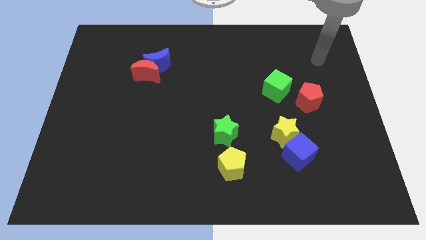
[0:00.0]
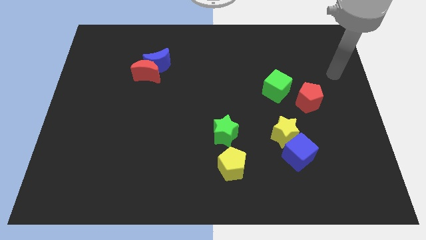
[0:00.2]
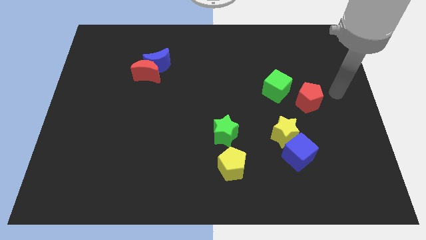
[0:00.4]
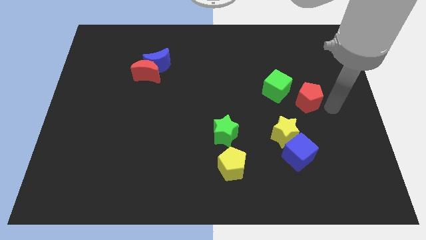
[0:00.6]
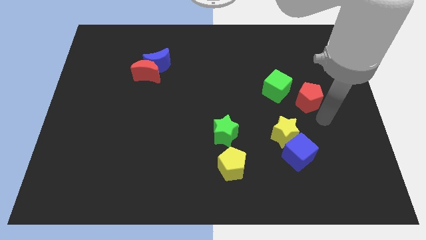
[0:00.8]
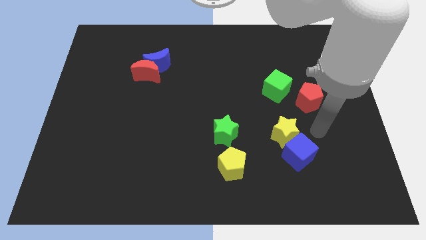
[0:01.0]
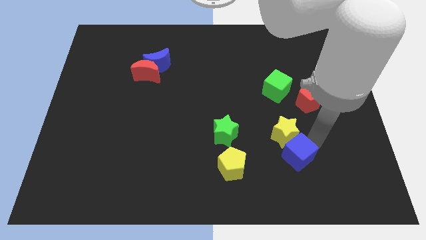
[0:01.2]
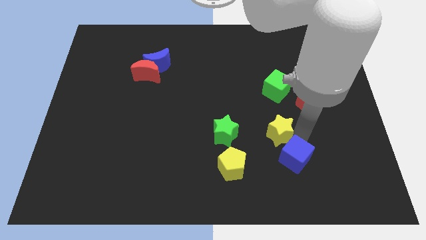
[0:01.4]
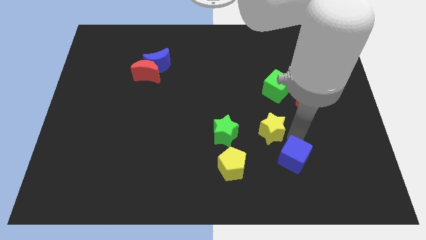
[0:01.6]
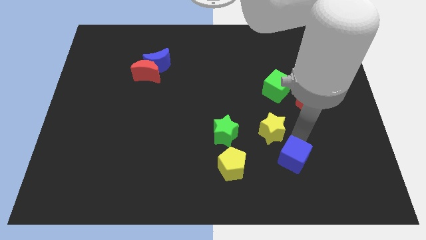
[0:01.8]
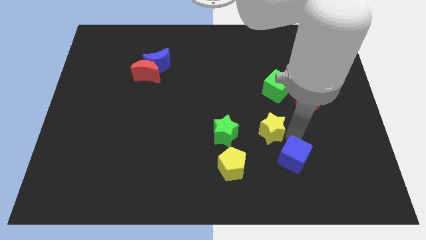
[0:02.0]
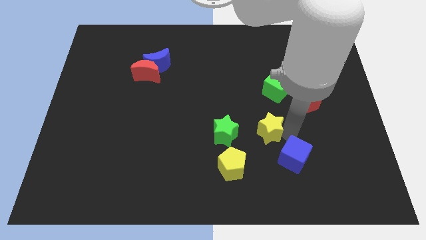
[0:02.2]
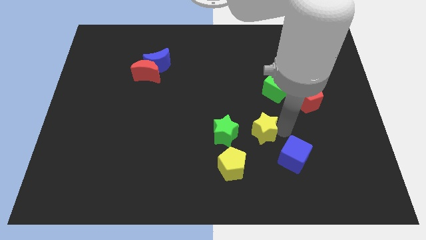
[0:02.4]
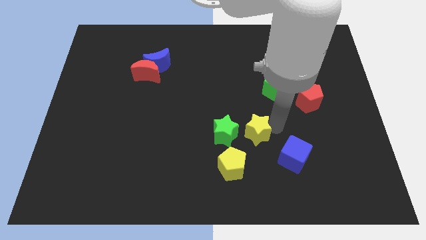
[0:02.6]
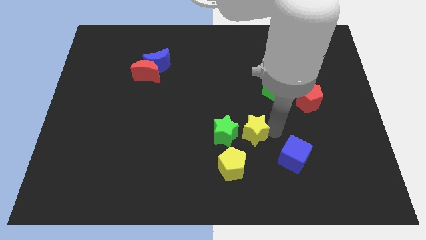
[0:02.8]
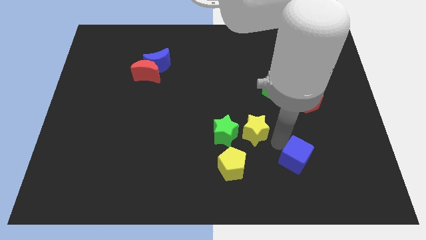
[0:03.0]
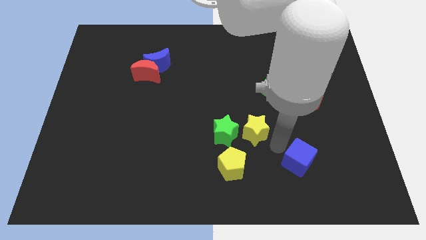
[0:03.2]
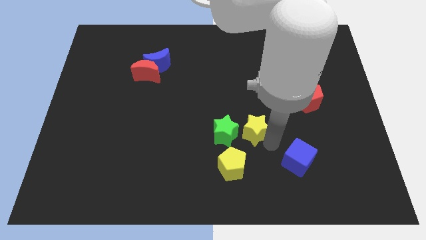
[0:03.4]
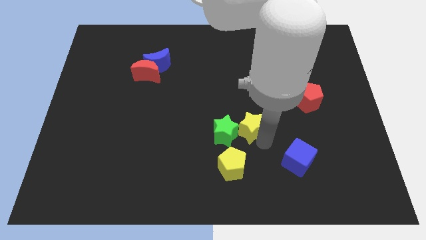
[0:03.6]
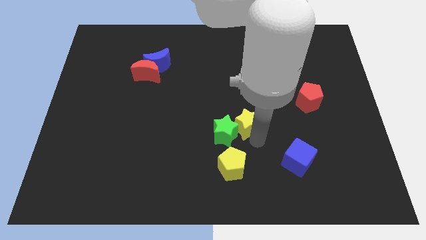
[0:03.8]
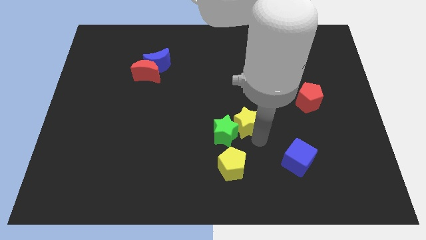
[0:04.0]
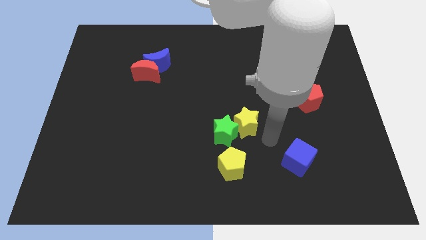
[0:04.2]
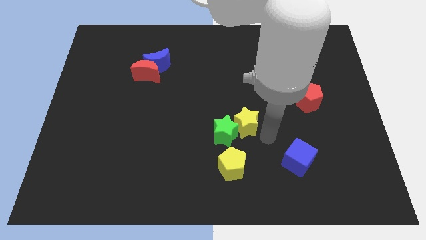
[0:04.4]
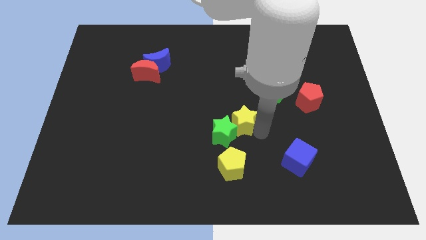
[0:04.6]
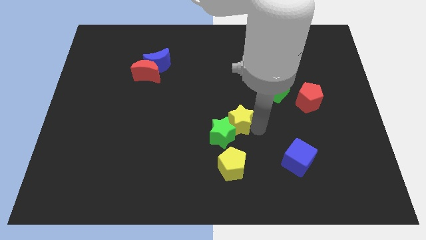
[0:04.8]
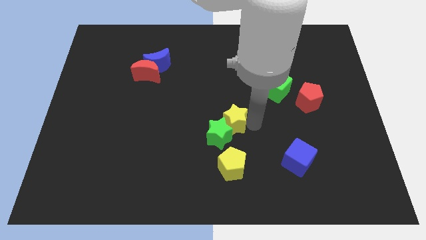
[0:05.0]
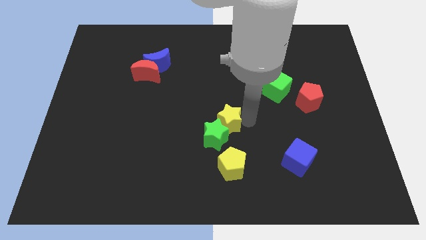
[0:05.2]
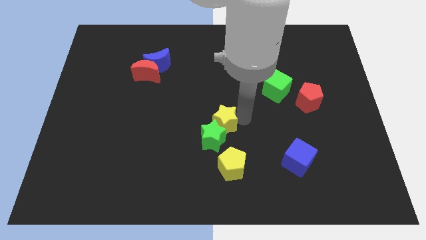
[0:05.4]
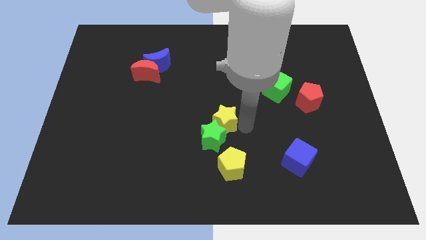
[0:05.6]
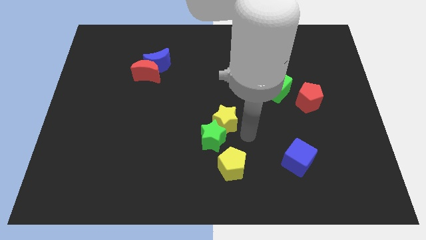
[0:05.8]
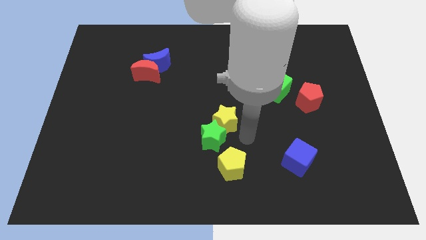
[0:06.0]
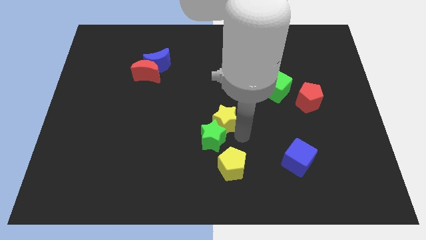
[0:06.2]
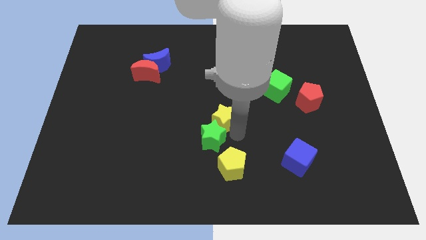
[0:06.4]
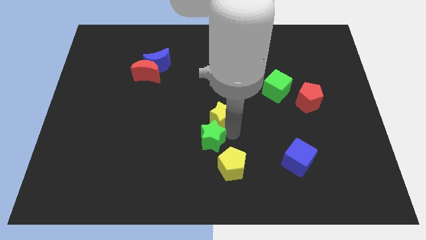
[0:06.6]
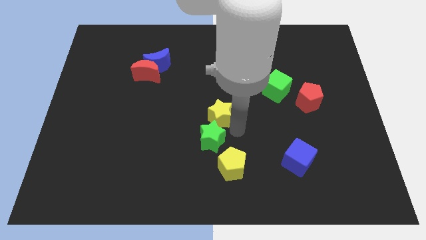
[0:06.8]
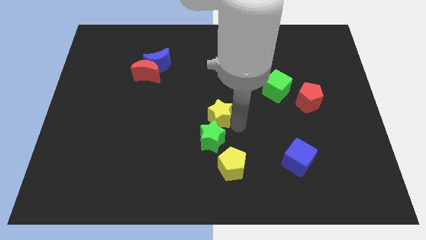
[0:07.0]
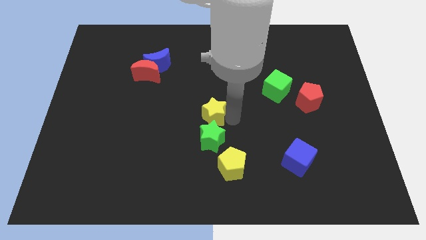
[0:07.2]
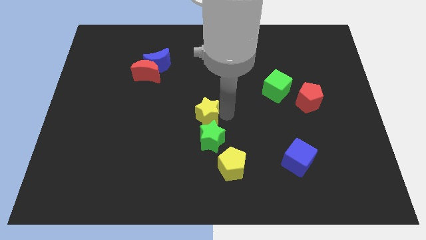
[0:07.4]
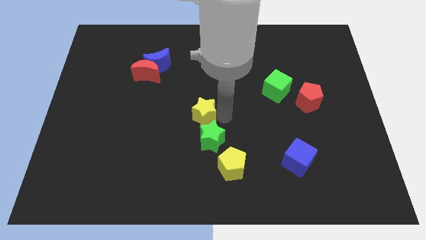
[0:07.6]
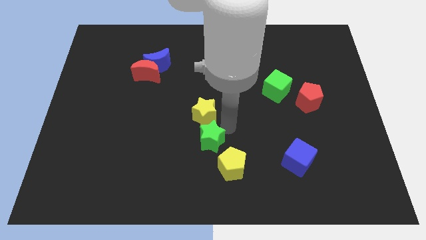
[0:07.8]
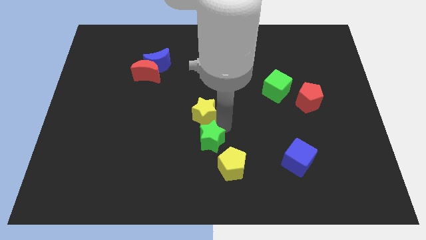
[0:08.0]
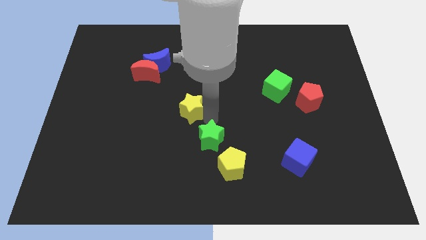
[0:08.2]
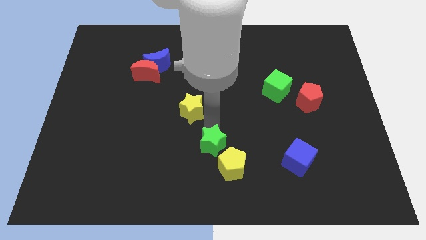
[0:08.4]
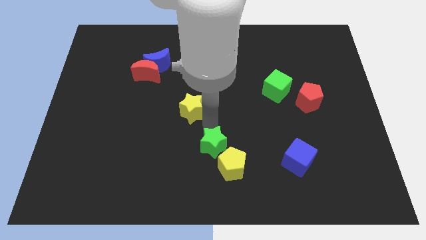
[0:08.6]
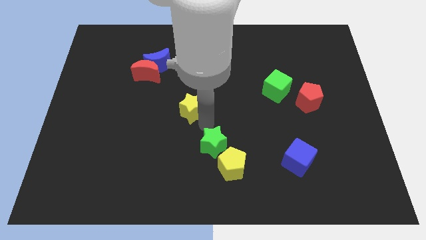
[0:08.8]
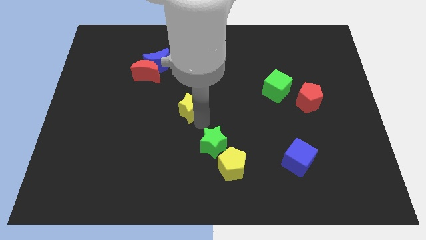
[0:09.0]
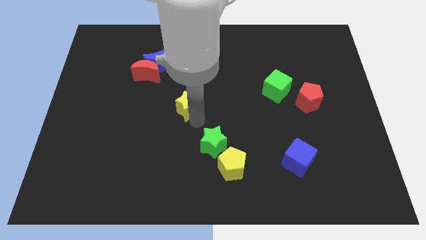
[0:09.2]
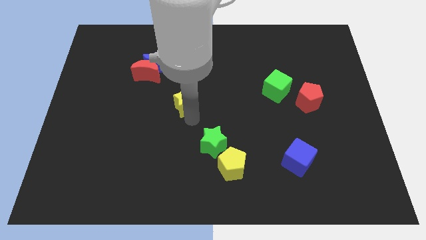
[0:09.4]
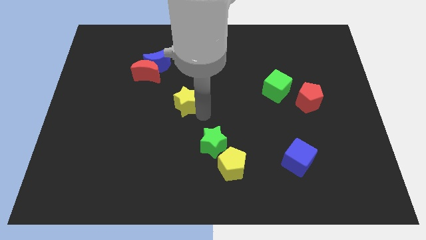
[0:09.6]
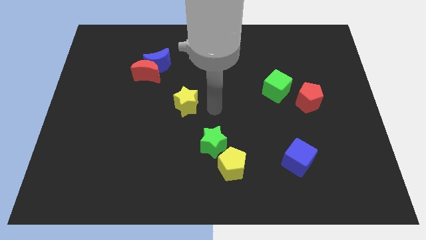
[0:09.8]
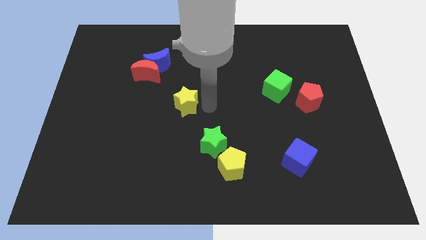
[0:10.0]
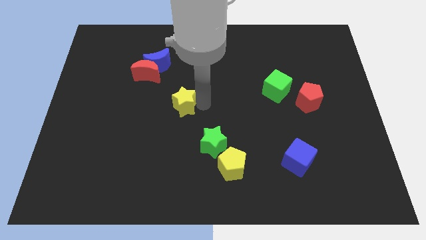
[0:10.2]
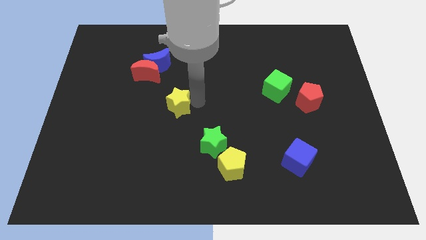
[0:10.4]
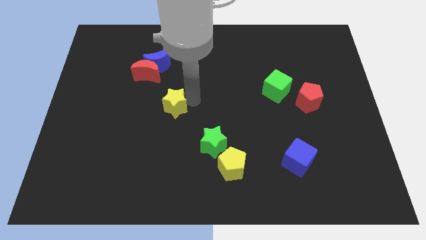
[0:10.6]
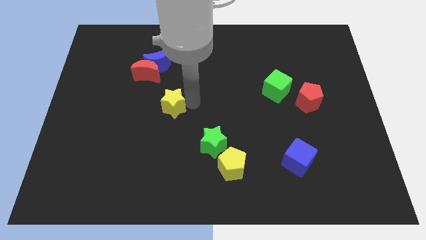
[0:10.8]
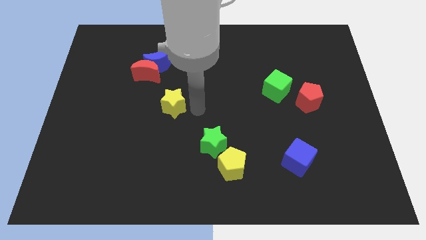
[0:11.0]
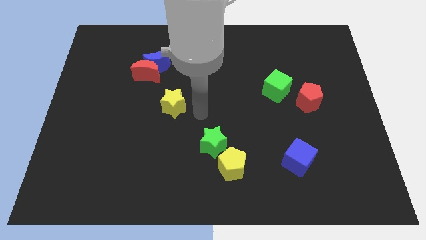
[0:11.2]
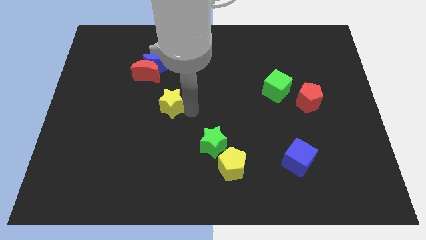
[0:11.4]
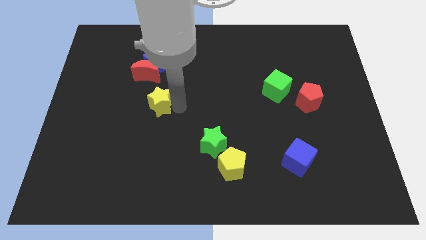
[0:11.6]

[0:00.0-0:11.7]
slide the yellow star to the bottom side of the red moon

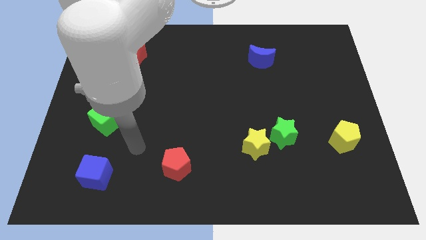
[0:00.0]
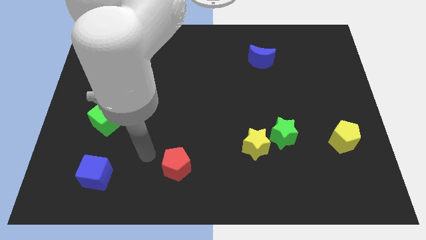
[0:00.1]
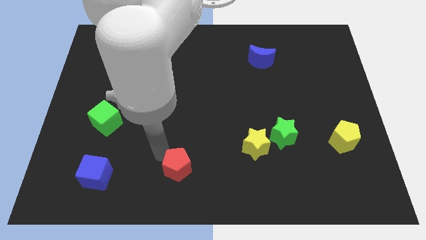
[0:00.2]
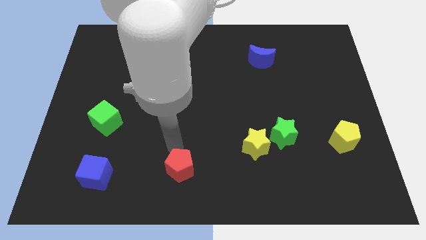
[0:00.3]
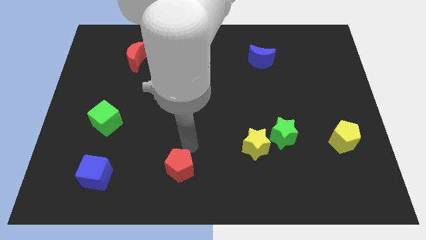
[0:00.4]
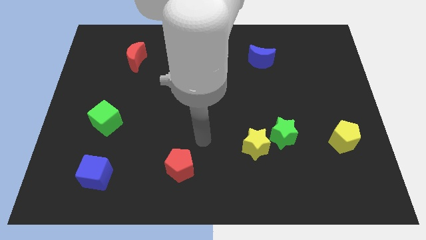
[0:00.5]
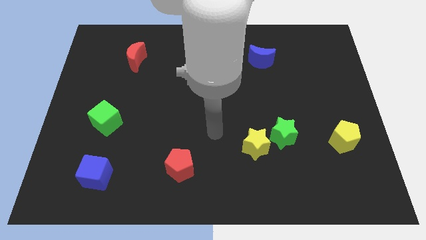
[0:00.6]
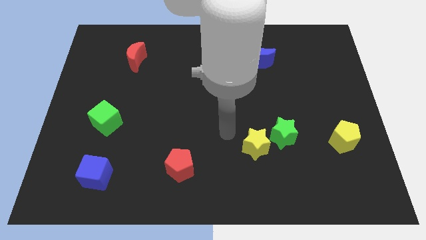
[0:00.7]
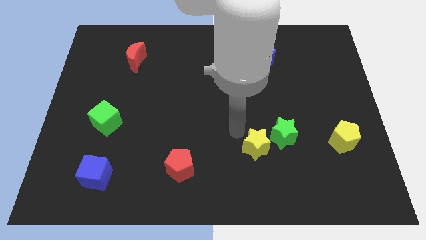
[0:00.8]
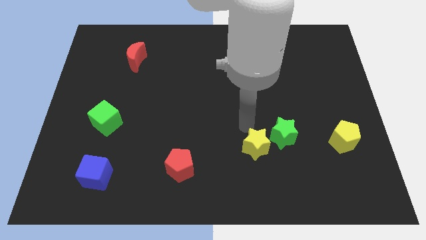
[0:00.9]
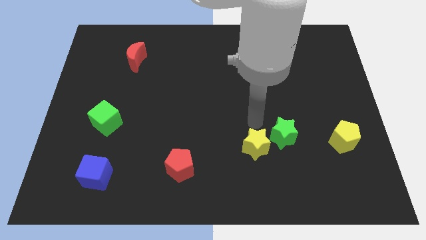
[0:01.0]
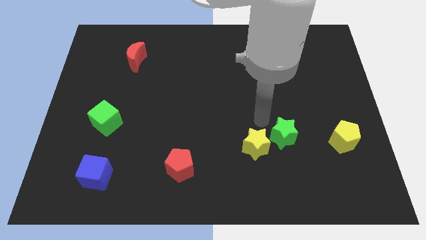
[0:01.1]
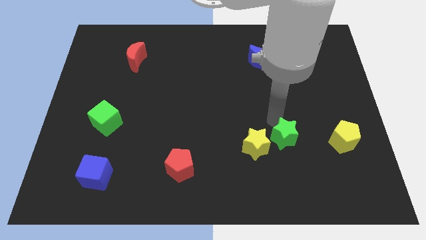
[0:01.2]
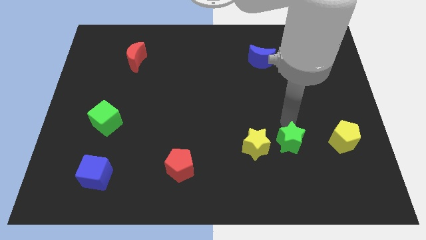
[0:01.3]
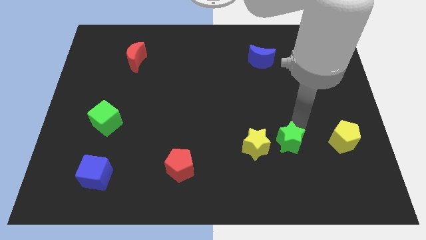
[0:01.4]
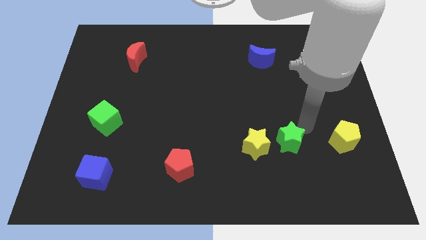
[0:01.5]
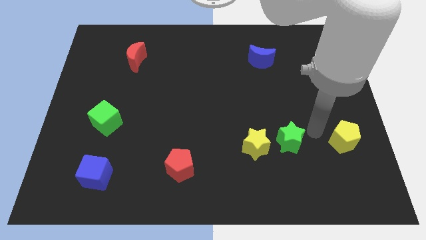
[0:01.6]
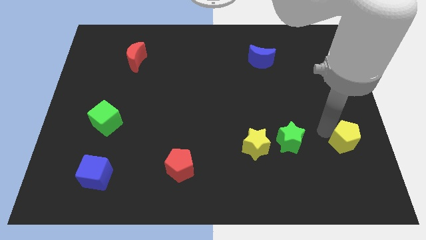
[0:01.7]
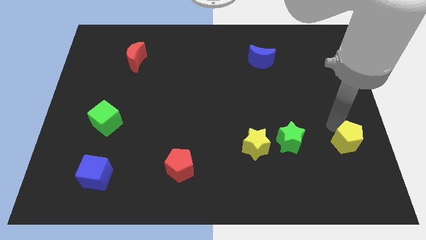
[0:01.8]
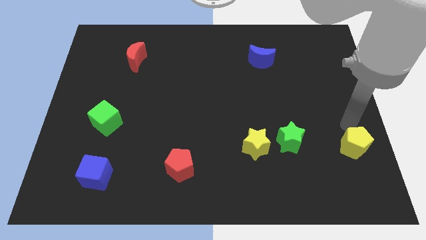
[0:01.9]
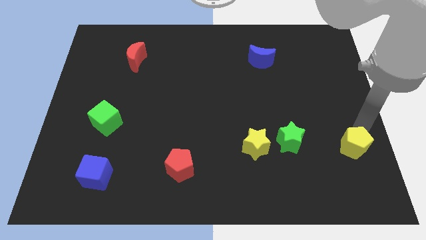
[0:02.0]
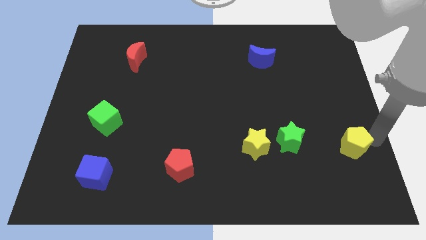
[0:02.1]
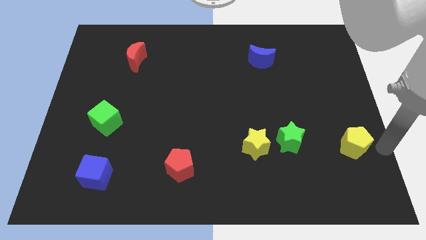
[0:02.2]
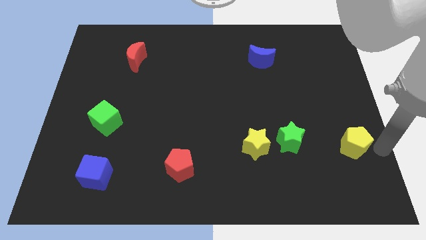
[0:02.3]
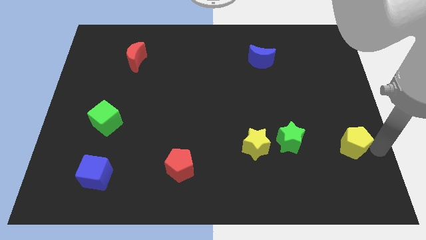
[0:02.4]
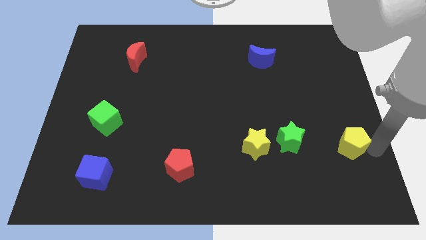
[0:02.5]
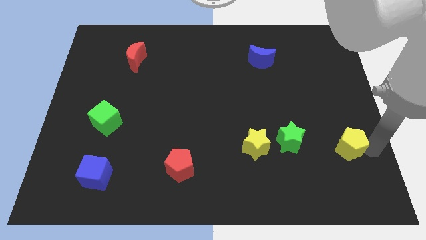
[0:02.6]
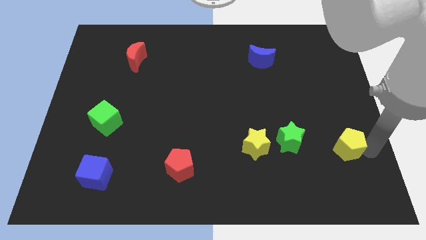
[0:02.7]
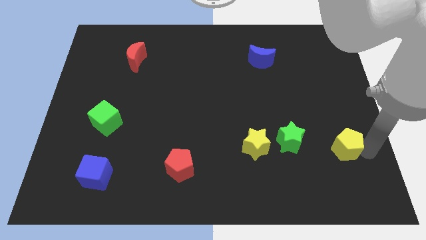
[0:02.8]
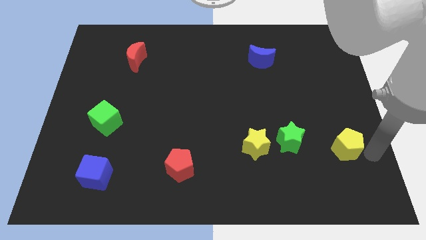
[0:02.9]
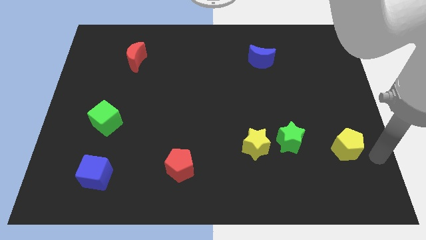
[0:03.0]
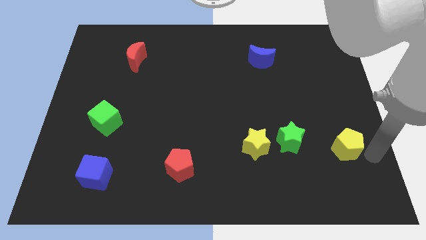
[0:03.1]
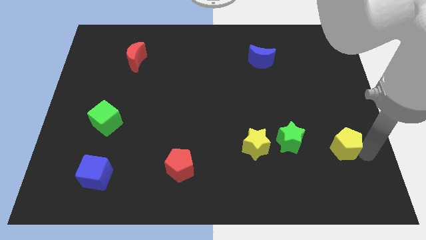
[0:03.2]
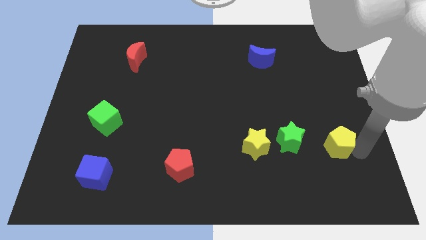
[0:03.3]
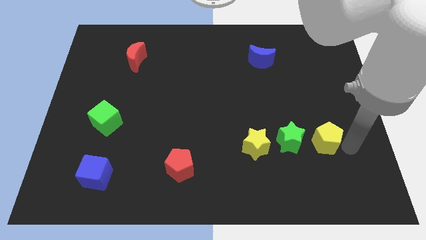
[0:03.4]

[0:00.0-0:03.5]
slide the yellow pentagon just right of the yellow star
